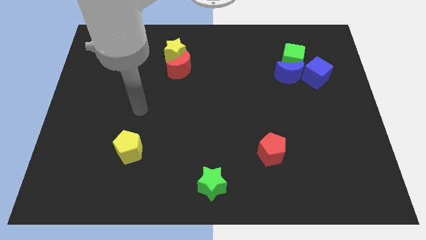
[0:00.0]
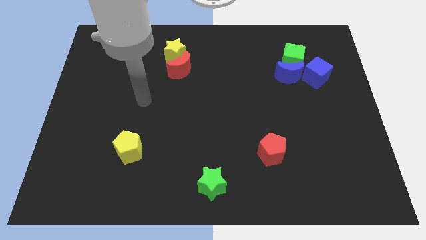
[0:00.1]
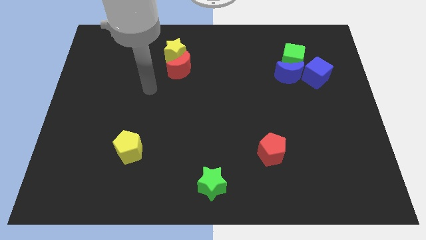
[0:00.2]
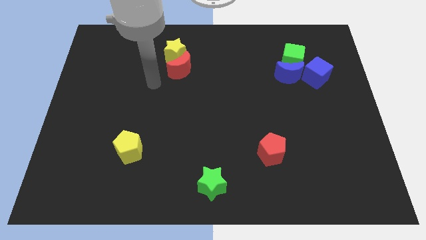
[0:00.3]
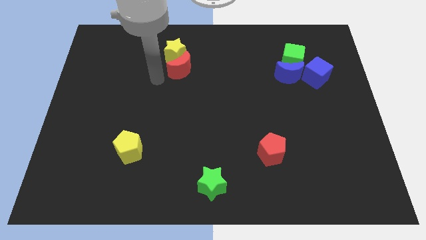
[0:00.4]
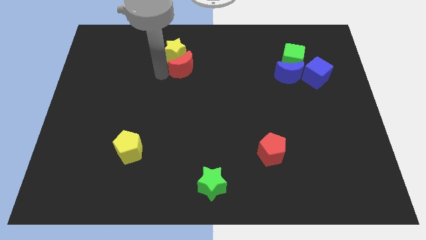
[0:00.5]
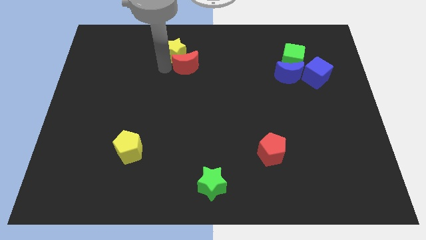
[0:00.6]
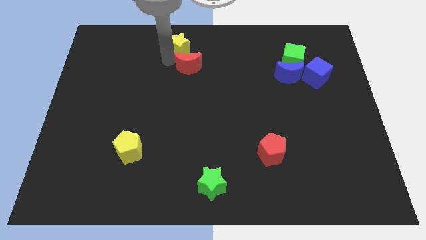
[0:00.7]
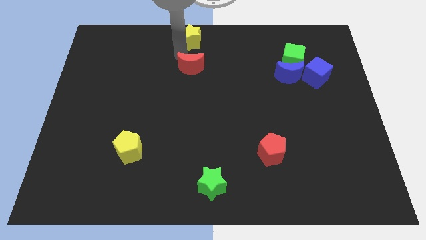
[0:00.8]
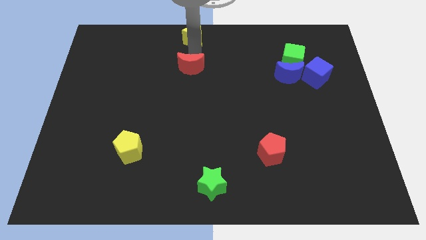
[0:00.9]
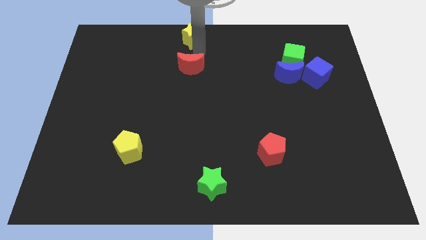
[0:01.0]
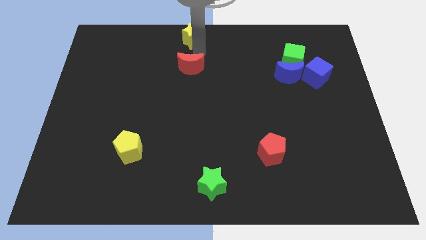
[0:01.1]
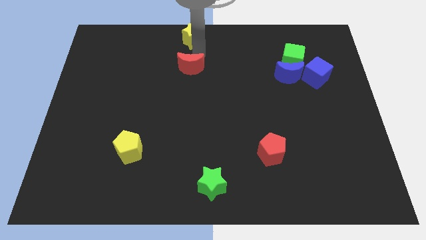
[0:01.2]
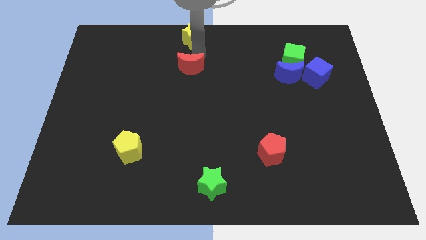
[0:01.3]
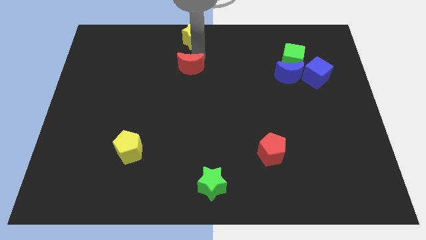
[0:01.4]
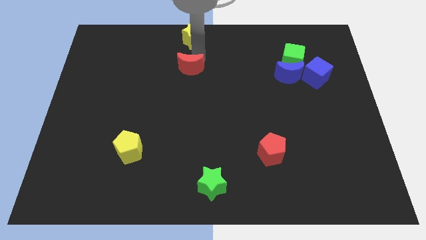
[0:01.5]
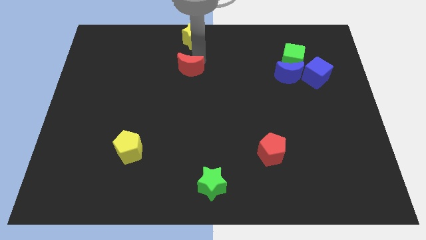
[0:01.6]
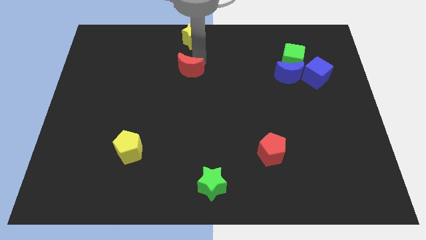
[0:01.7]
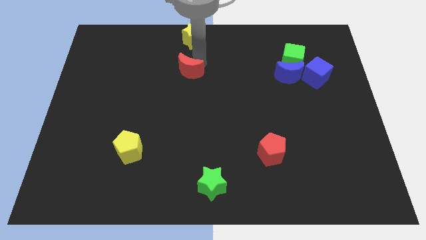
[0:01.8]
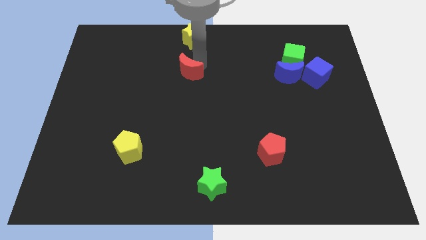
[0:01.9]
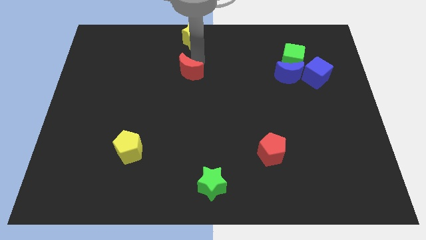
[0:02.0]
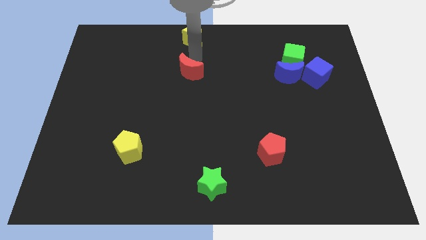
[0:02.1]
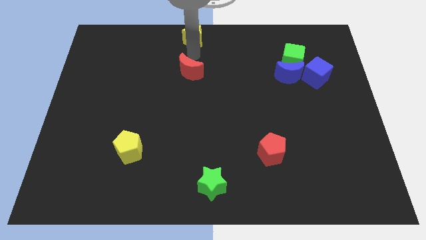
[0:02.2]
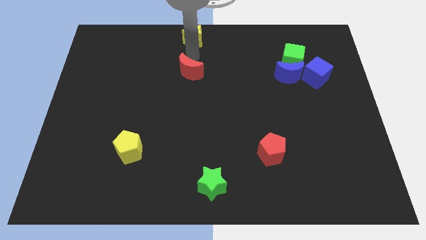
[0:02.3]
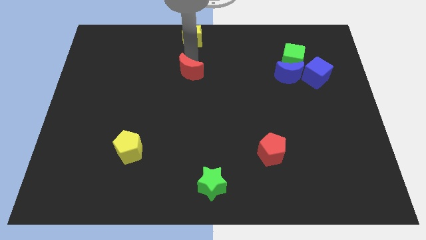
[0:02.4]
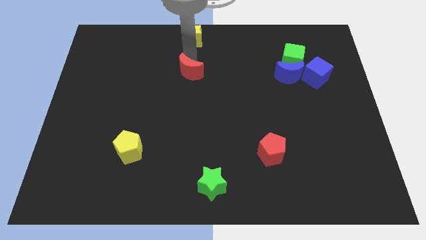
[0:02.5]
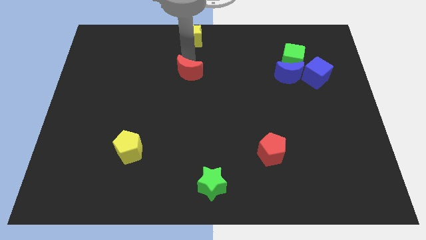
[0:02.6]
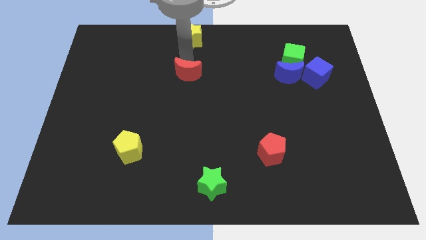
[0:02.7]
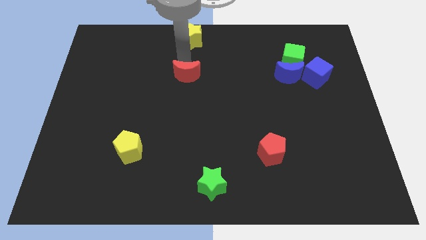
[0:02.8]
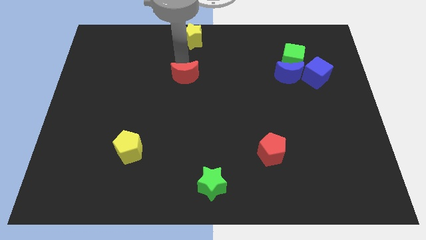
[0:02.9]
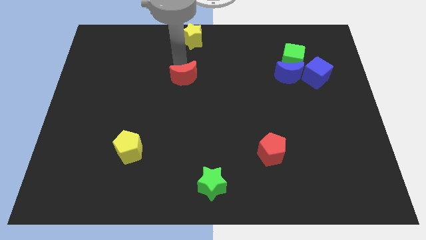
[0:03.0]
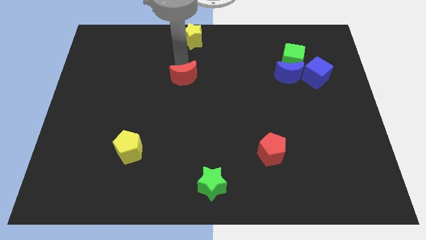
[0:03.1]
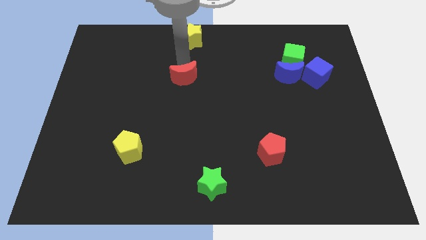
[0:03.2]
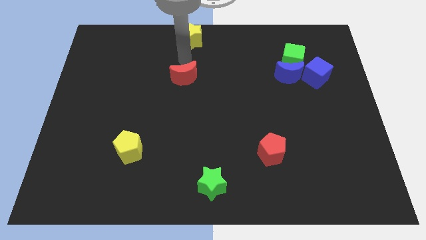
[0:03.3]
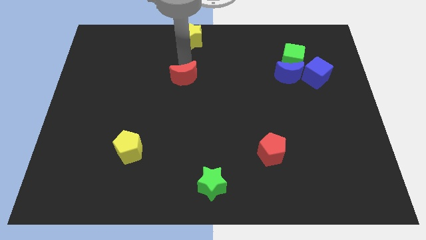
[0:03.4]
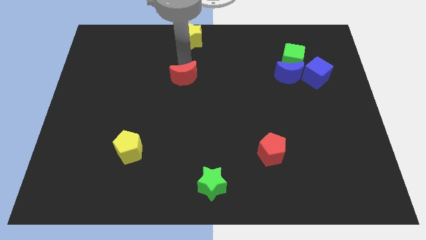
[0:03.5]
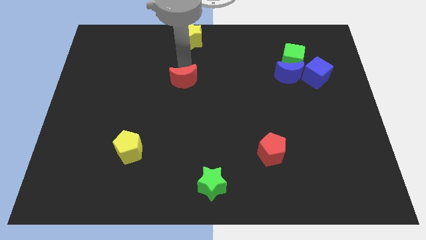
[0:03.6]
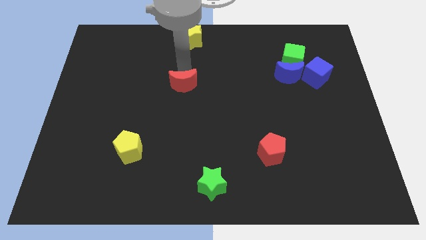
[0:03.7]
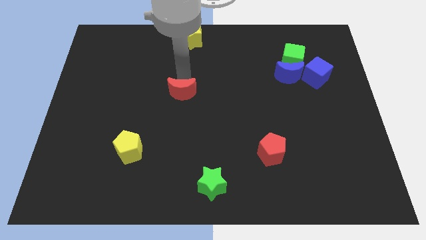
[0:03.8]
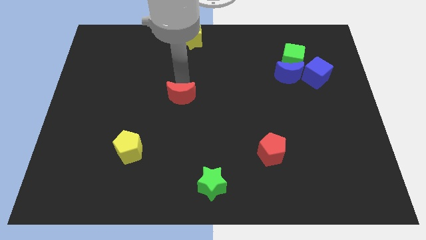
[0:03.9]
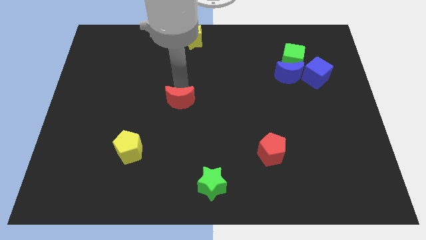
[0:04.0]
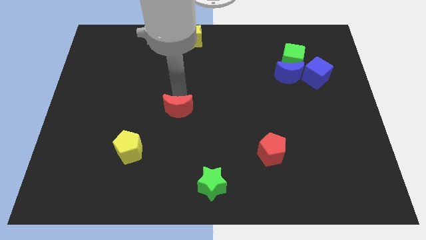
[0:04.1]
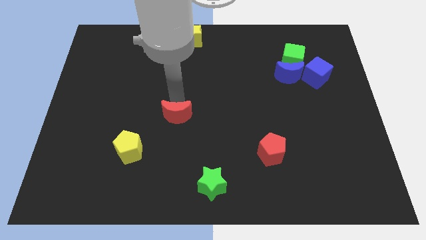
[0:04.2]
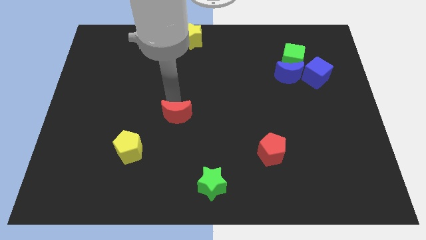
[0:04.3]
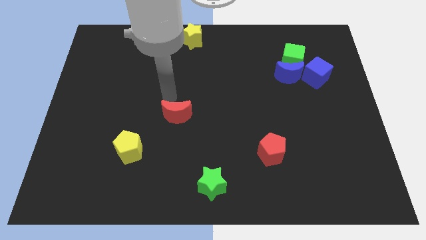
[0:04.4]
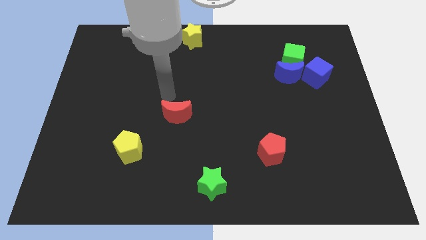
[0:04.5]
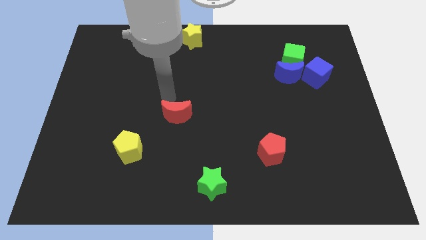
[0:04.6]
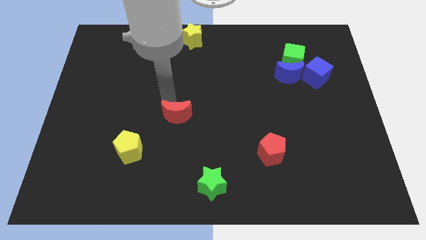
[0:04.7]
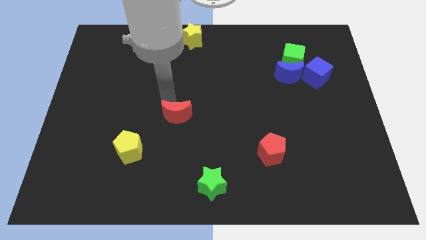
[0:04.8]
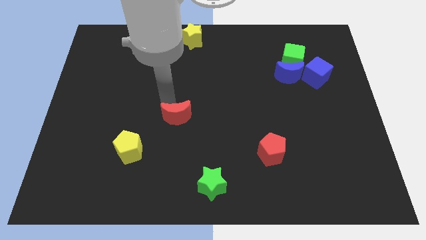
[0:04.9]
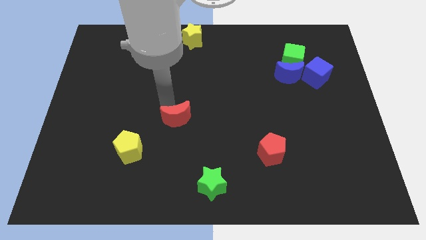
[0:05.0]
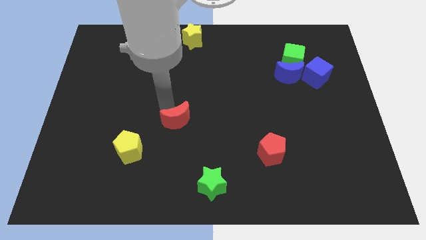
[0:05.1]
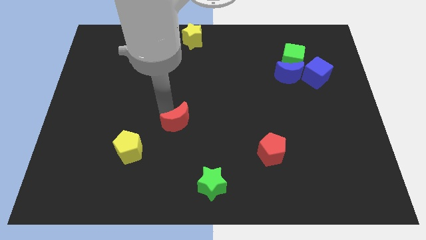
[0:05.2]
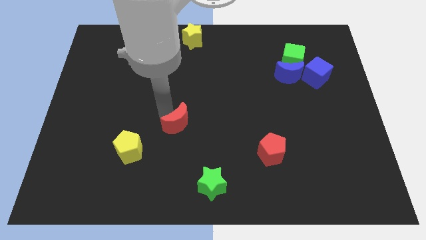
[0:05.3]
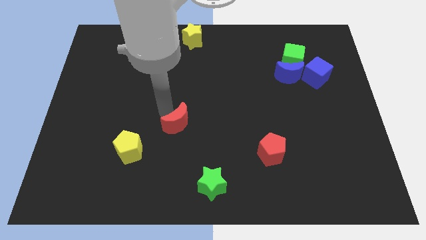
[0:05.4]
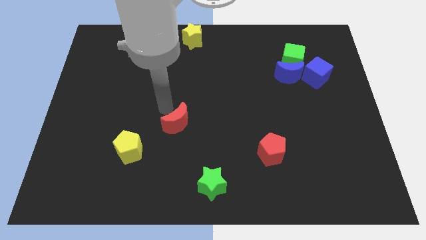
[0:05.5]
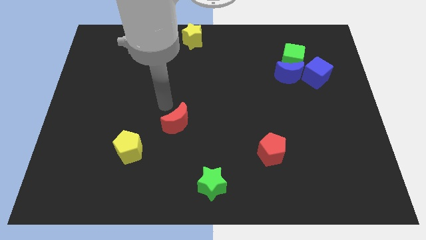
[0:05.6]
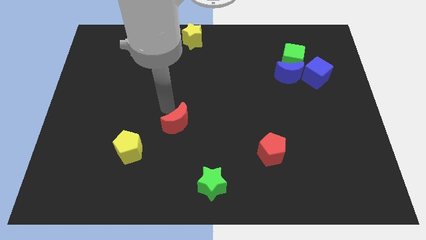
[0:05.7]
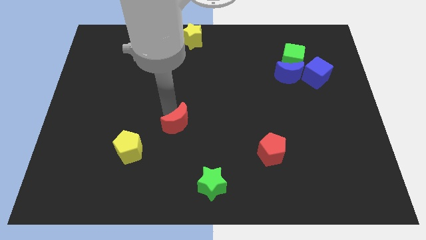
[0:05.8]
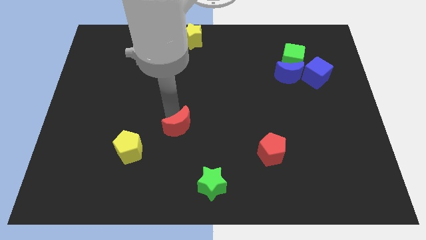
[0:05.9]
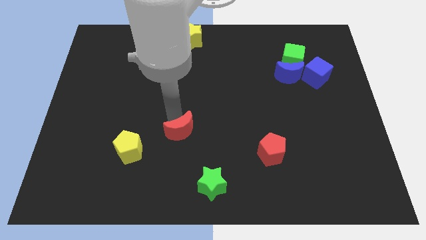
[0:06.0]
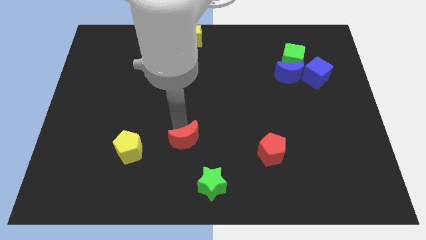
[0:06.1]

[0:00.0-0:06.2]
move the red moon to the top left side of the green star

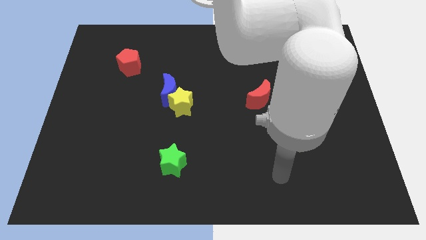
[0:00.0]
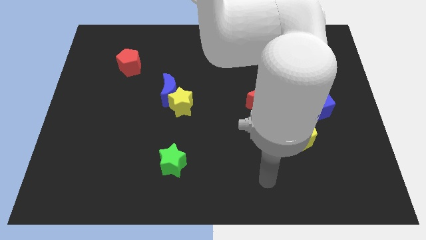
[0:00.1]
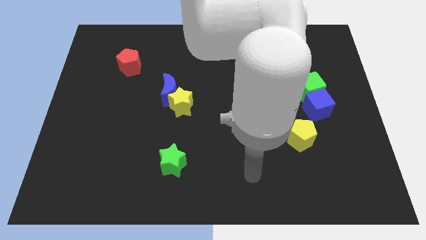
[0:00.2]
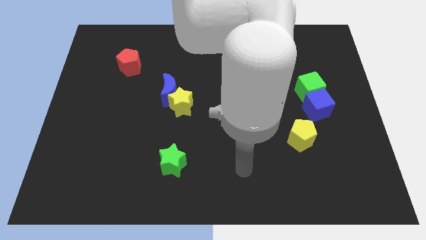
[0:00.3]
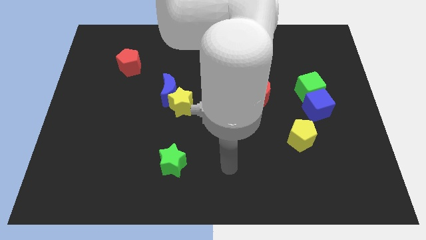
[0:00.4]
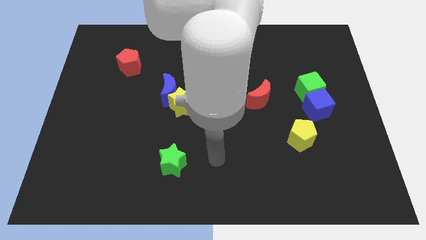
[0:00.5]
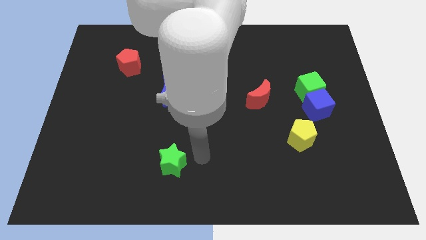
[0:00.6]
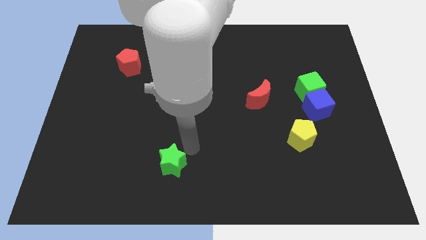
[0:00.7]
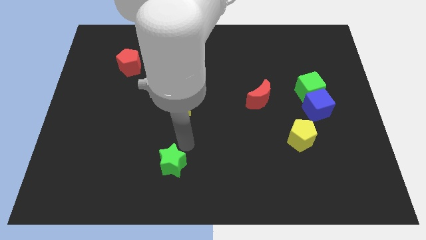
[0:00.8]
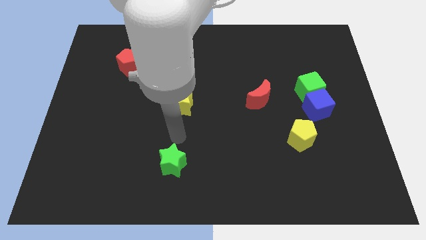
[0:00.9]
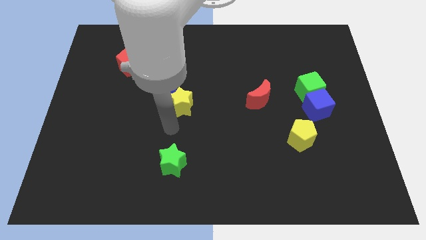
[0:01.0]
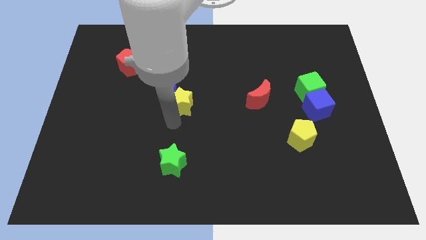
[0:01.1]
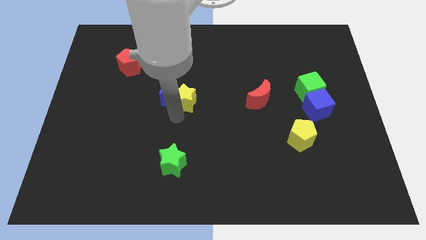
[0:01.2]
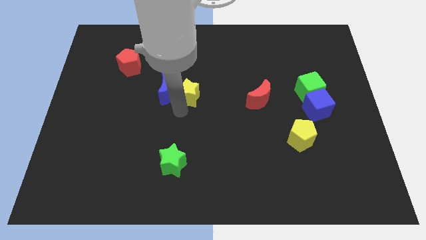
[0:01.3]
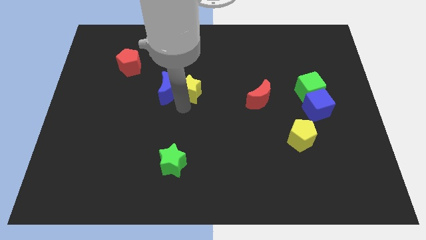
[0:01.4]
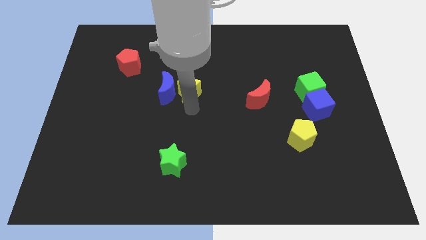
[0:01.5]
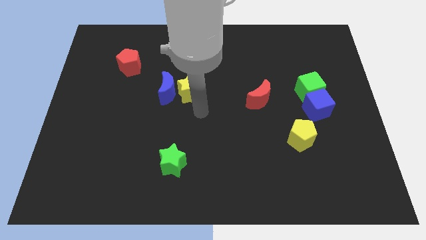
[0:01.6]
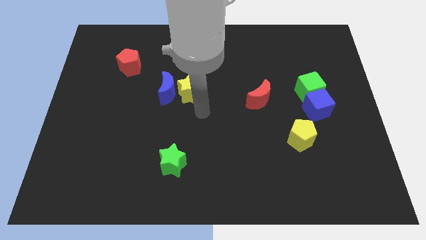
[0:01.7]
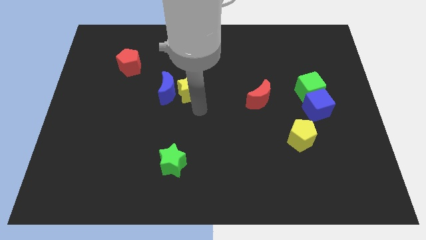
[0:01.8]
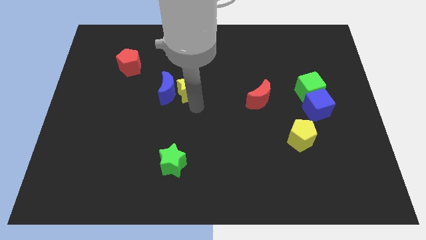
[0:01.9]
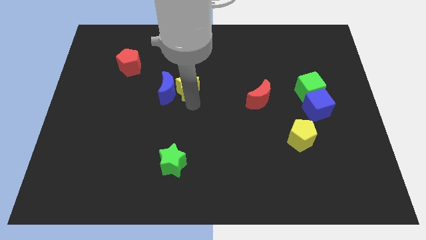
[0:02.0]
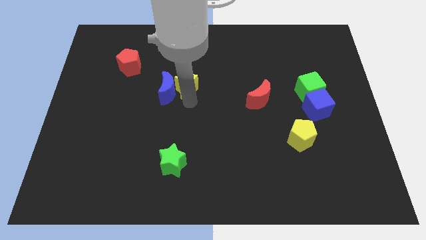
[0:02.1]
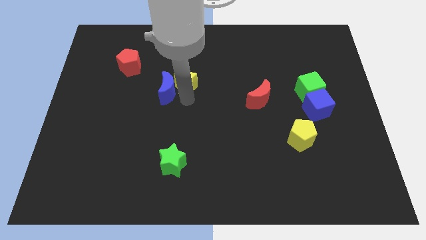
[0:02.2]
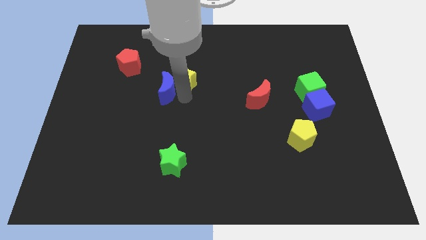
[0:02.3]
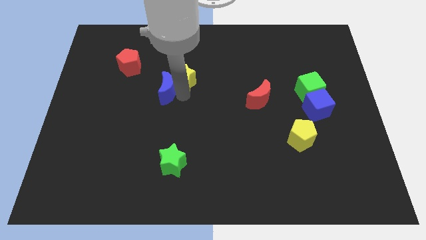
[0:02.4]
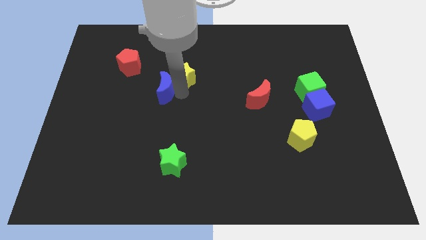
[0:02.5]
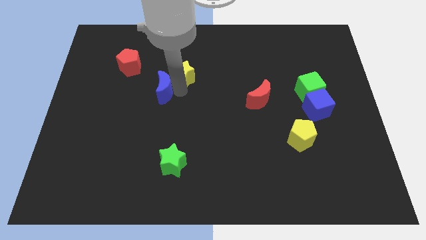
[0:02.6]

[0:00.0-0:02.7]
slide the yellow star right of the red pentagon
